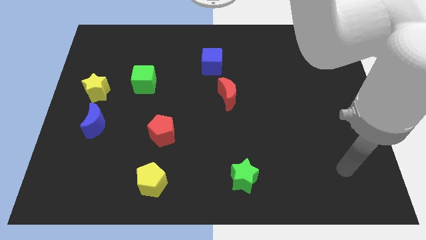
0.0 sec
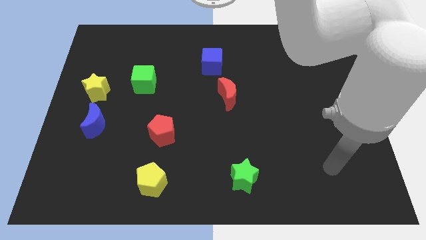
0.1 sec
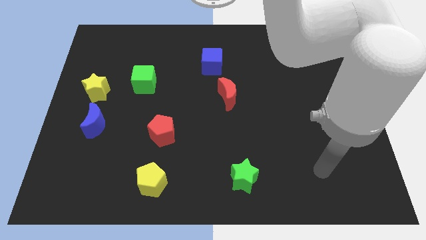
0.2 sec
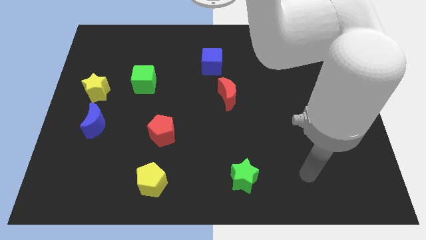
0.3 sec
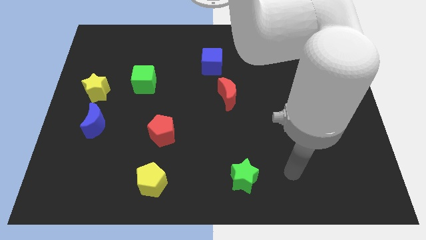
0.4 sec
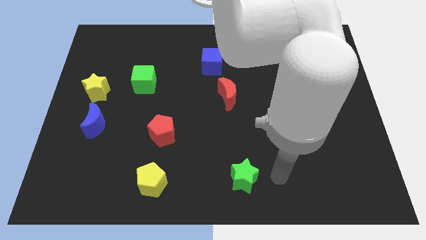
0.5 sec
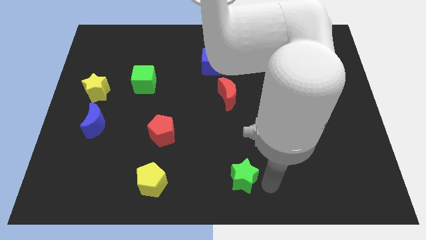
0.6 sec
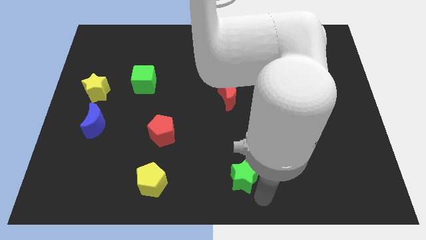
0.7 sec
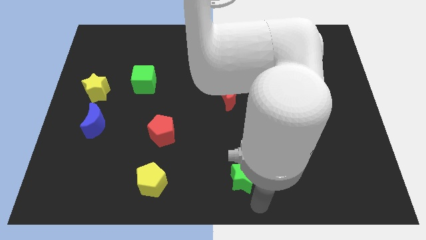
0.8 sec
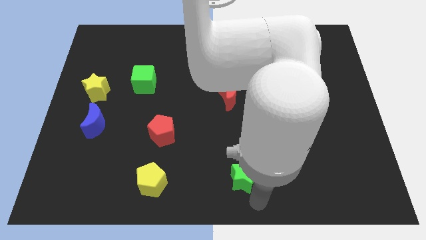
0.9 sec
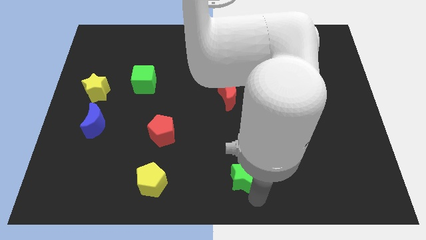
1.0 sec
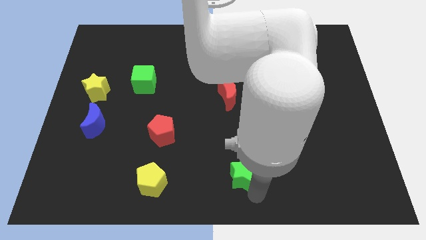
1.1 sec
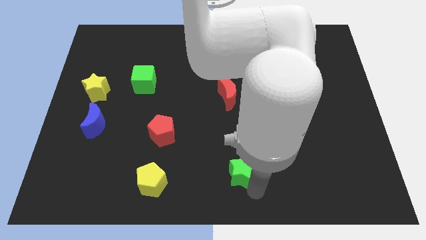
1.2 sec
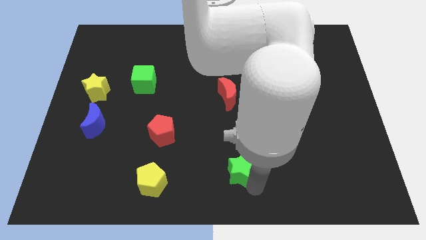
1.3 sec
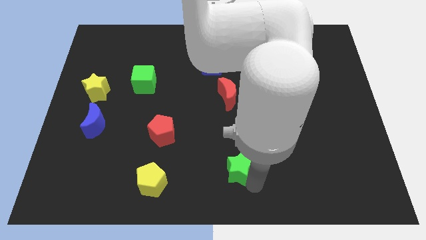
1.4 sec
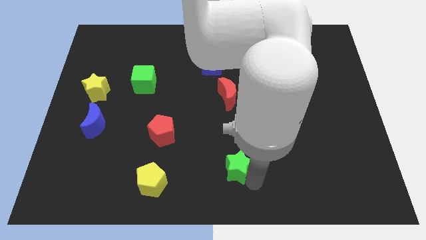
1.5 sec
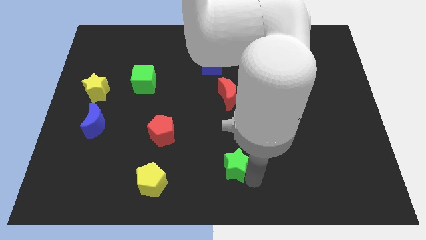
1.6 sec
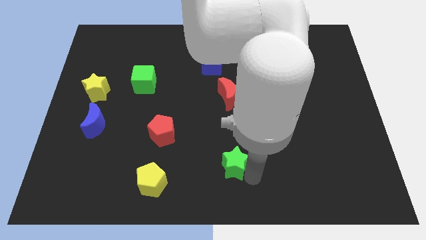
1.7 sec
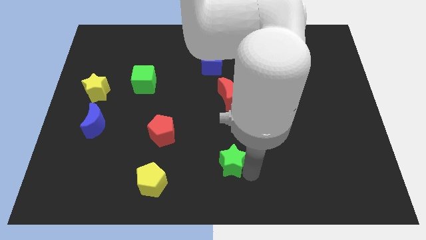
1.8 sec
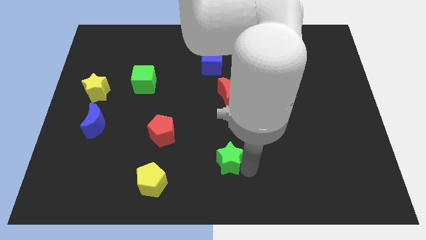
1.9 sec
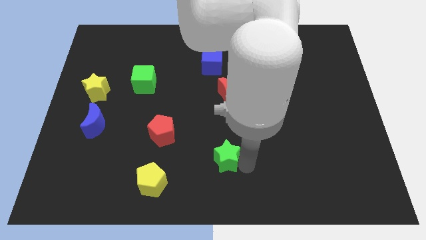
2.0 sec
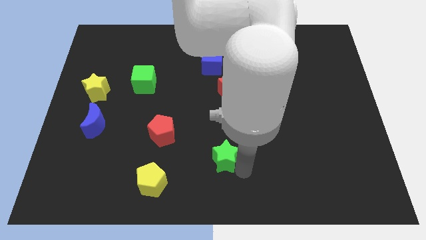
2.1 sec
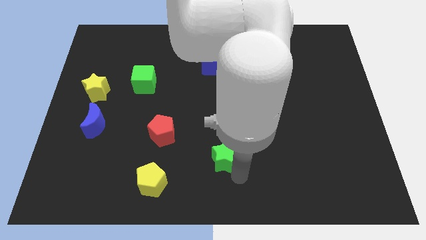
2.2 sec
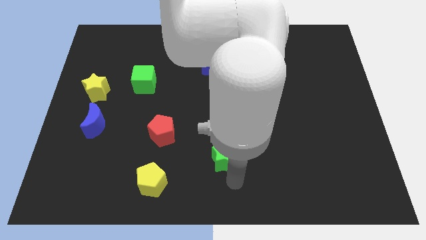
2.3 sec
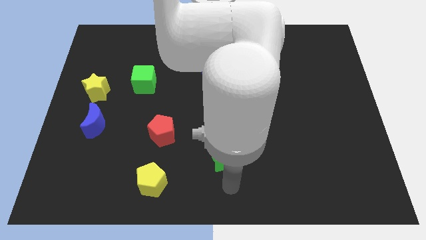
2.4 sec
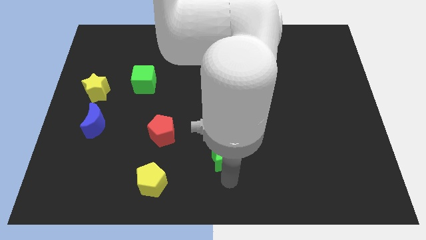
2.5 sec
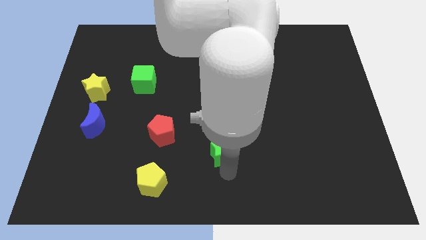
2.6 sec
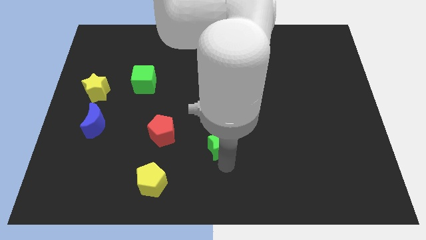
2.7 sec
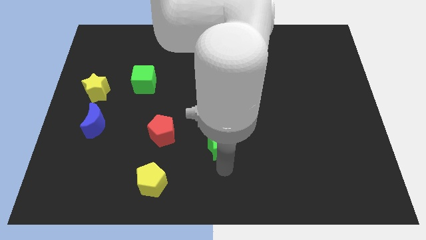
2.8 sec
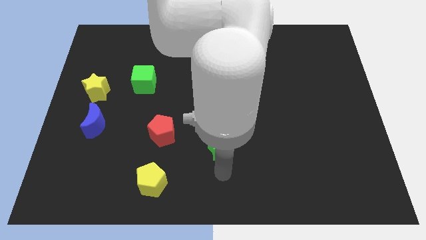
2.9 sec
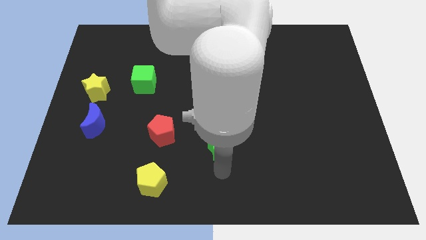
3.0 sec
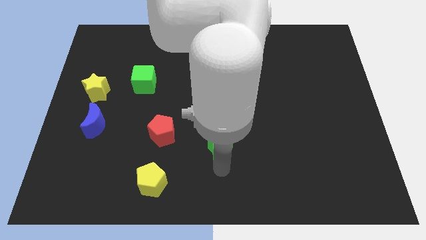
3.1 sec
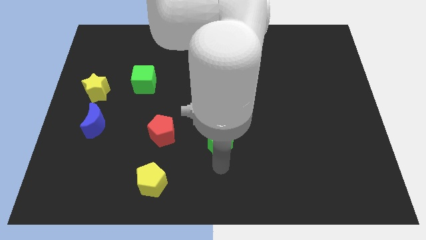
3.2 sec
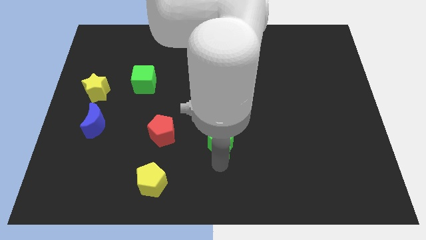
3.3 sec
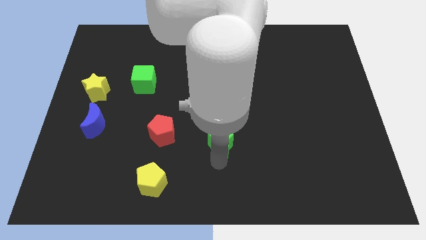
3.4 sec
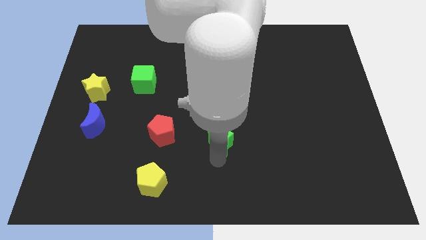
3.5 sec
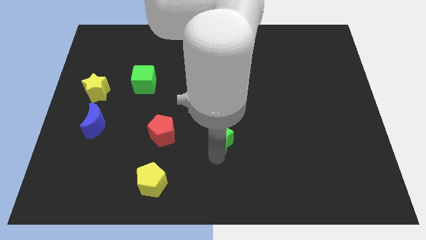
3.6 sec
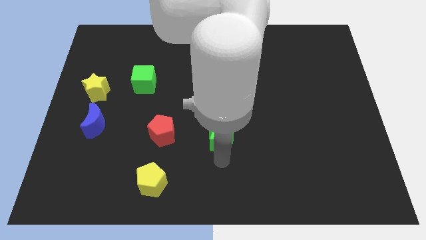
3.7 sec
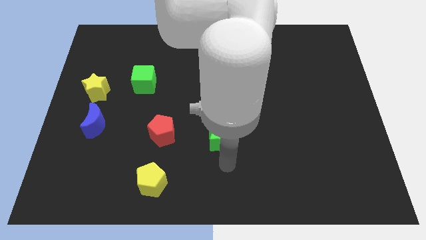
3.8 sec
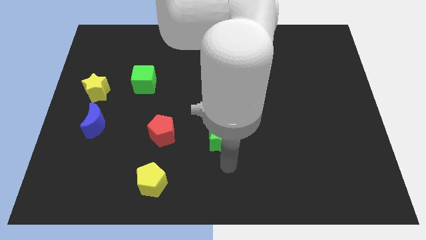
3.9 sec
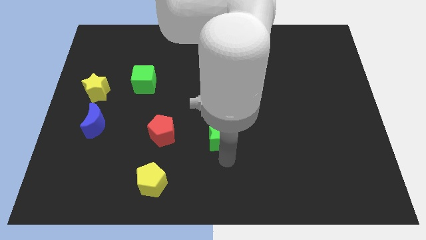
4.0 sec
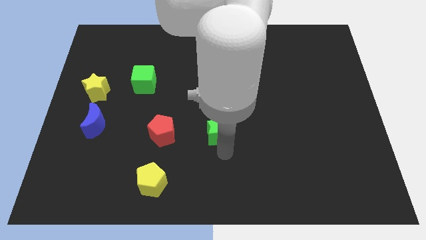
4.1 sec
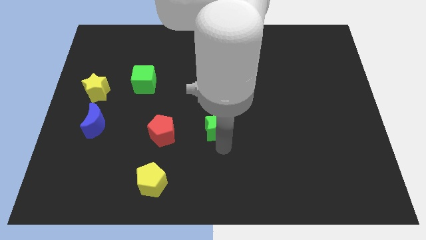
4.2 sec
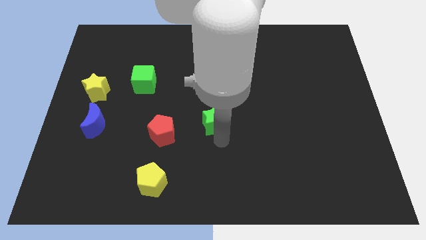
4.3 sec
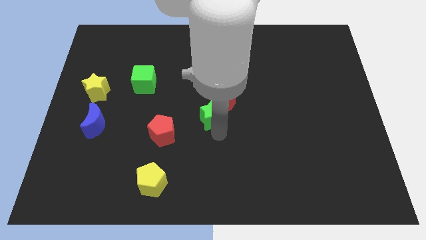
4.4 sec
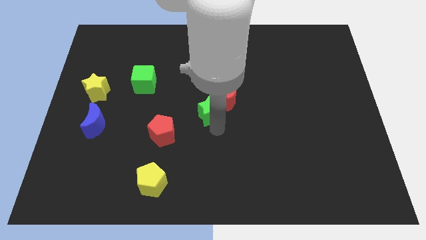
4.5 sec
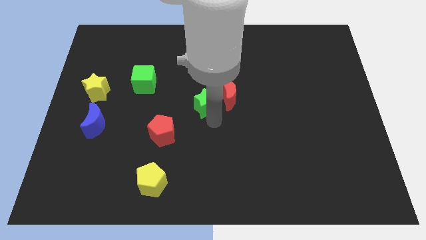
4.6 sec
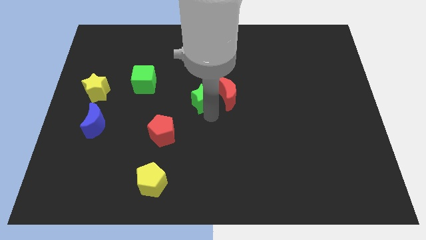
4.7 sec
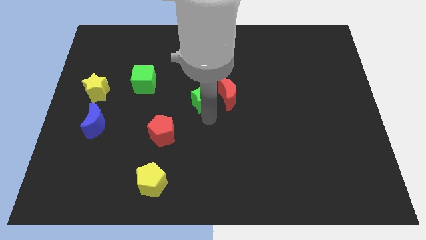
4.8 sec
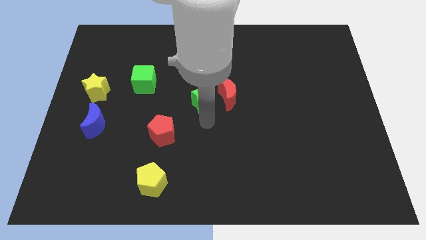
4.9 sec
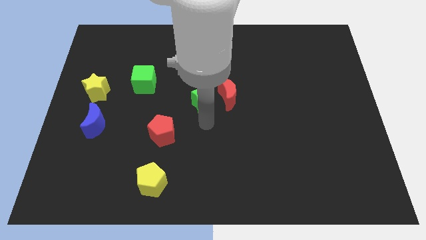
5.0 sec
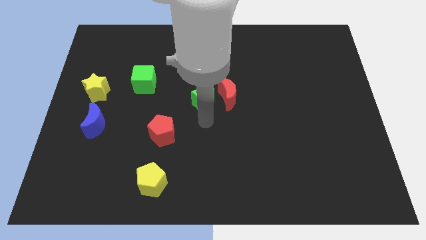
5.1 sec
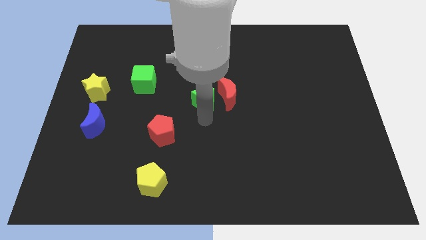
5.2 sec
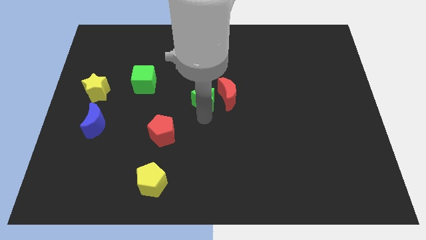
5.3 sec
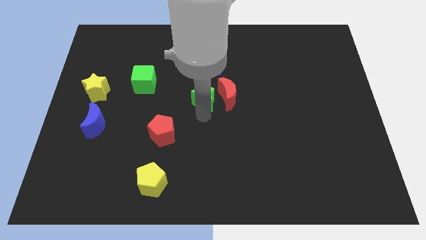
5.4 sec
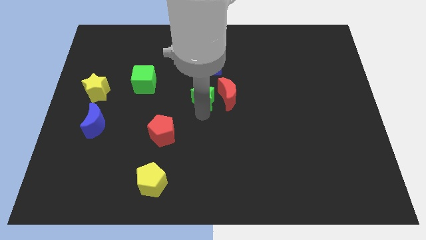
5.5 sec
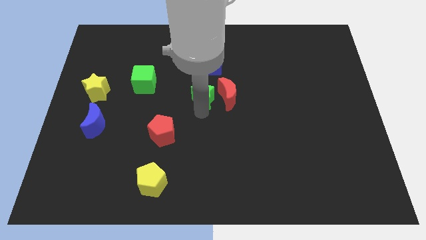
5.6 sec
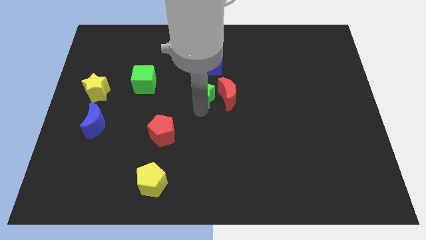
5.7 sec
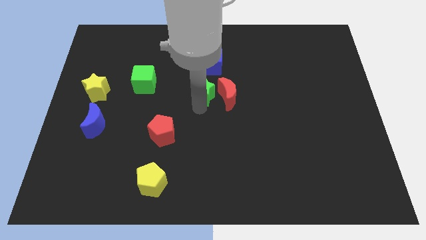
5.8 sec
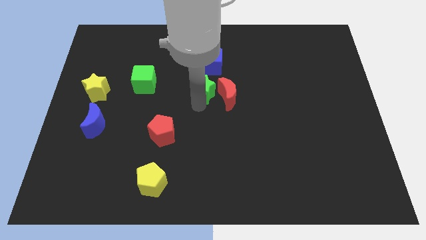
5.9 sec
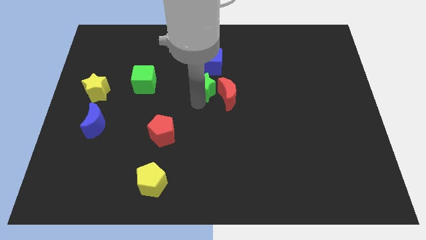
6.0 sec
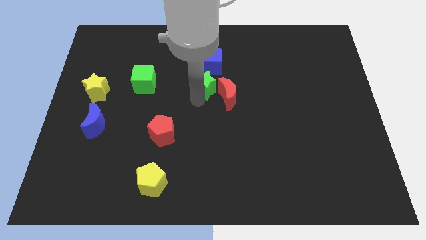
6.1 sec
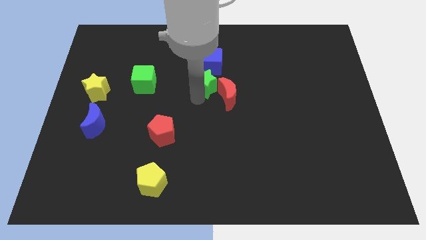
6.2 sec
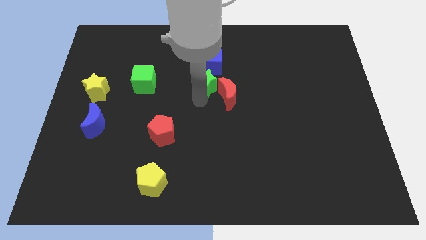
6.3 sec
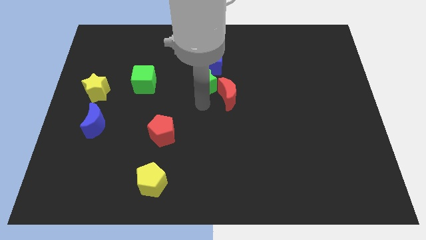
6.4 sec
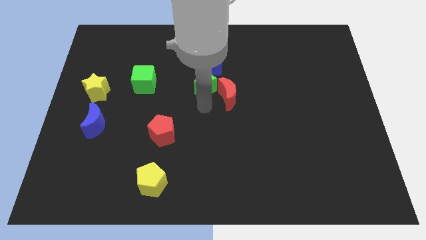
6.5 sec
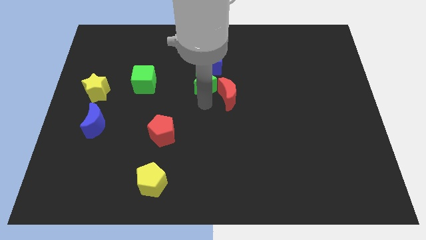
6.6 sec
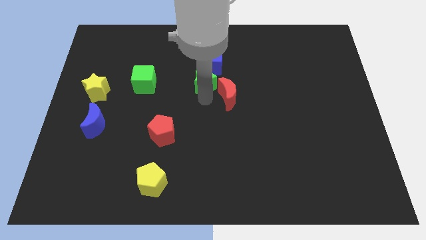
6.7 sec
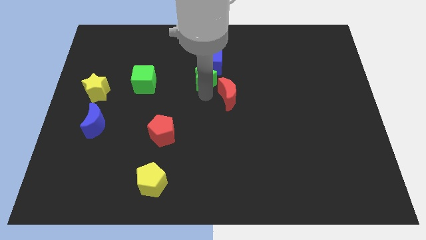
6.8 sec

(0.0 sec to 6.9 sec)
put the green star close to the blue cube

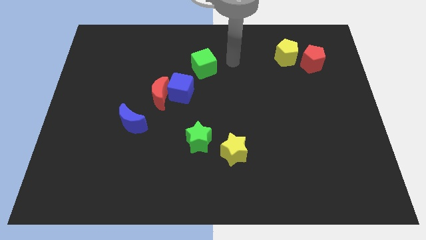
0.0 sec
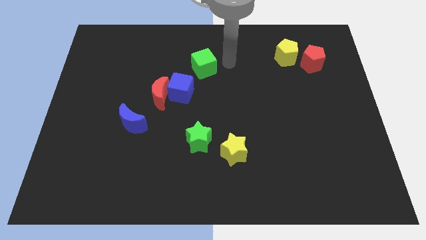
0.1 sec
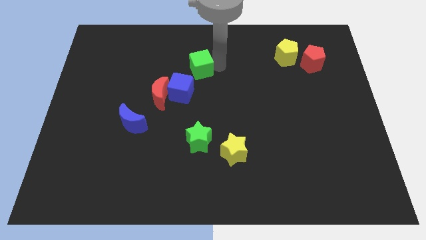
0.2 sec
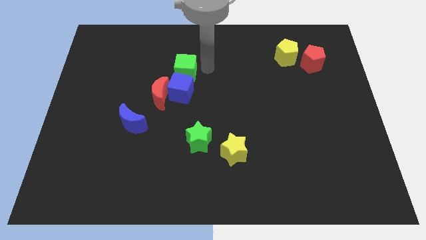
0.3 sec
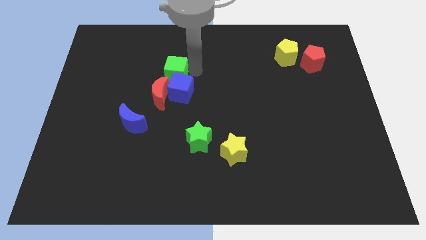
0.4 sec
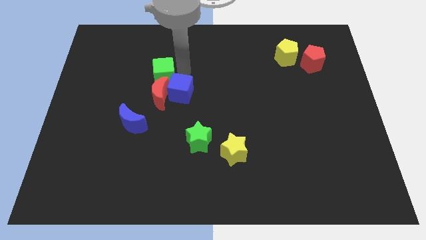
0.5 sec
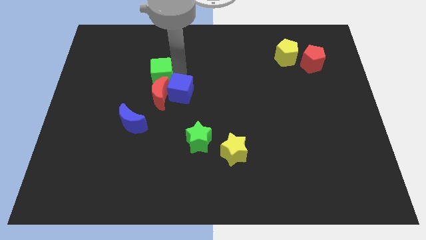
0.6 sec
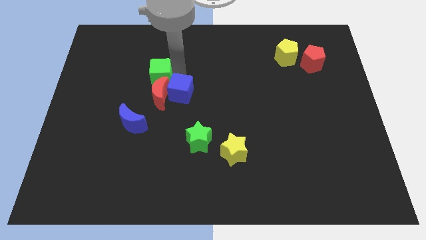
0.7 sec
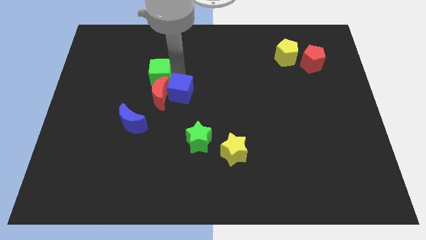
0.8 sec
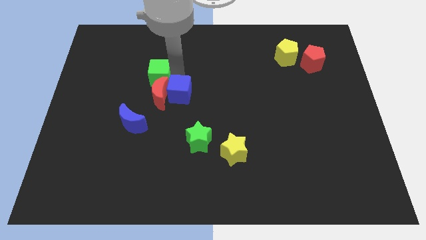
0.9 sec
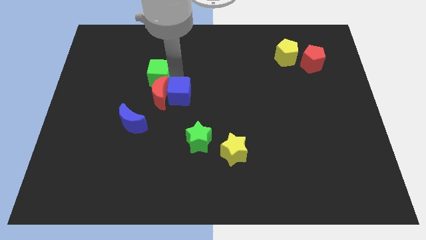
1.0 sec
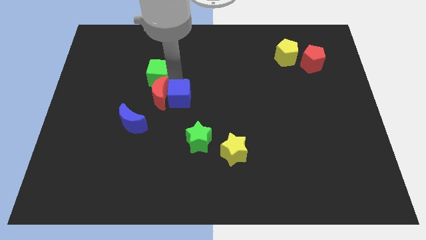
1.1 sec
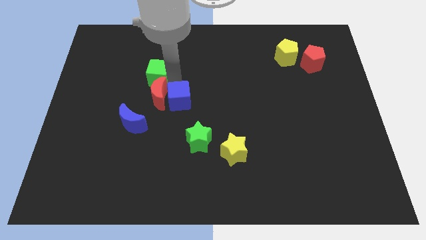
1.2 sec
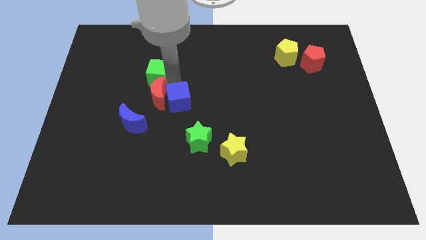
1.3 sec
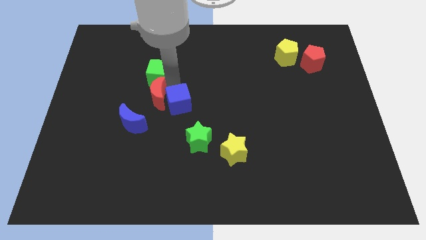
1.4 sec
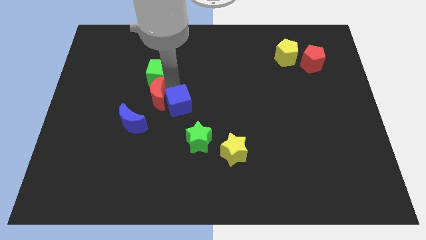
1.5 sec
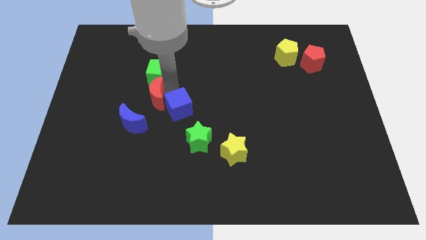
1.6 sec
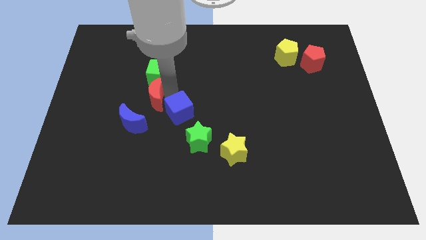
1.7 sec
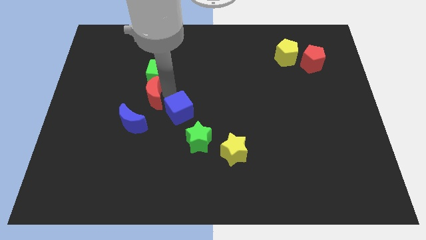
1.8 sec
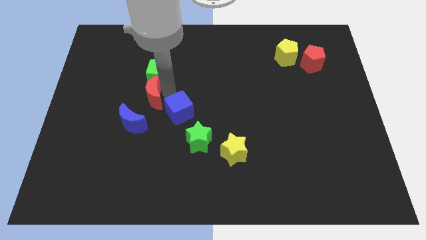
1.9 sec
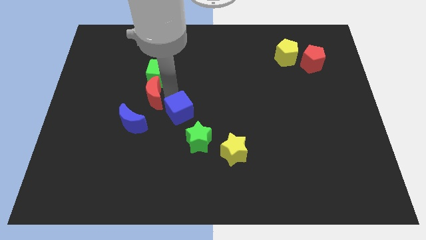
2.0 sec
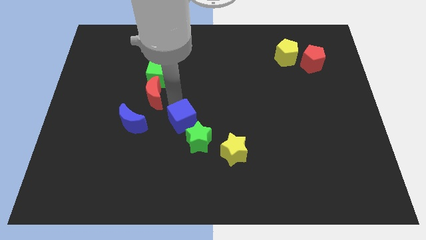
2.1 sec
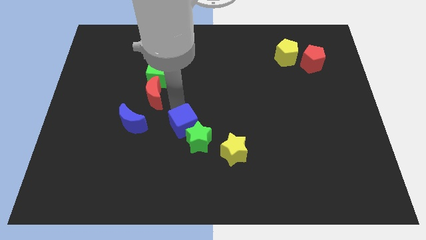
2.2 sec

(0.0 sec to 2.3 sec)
put the blue cube close to the green star
